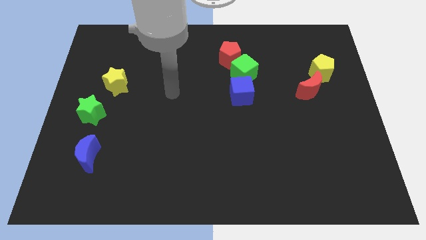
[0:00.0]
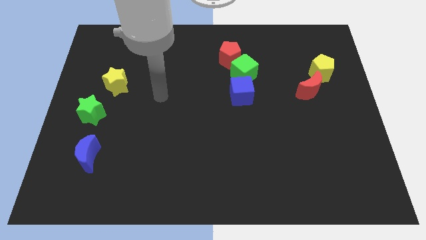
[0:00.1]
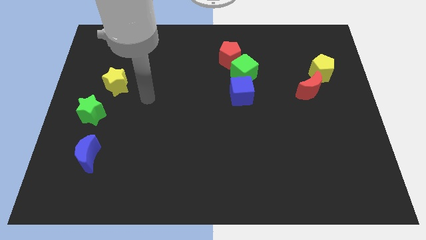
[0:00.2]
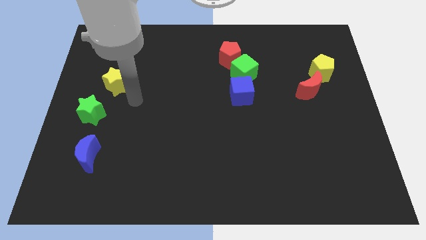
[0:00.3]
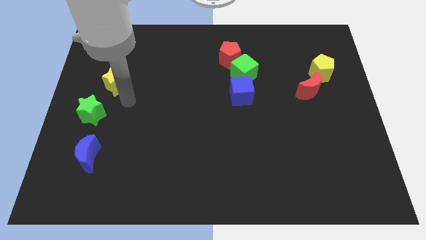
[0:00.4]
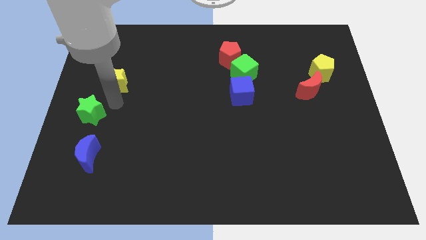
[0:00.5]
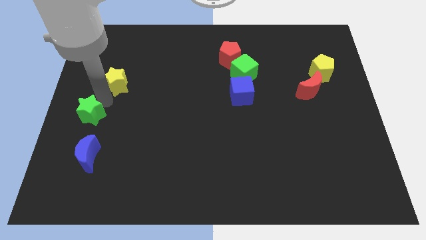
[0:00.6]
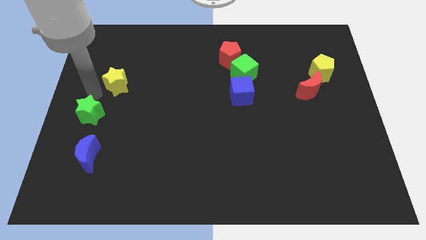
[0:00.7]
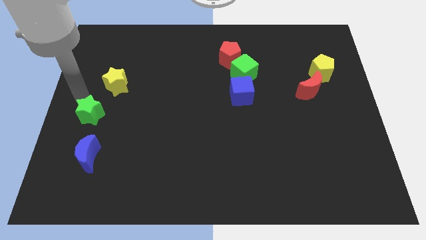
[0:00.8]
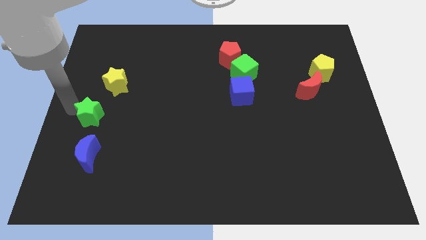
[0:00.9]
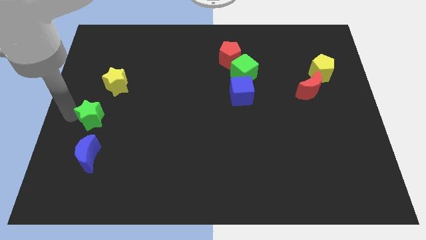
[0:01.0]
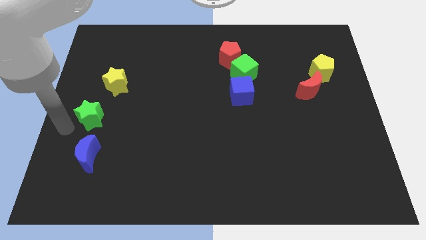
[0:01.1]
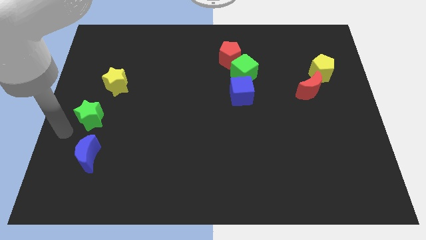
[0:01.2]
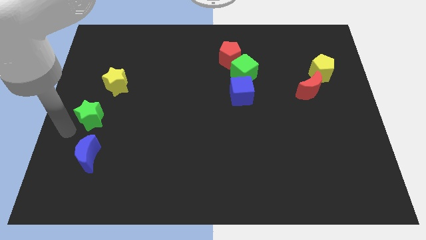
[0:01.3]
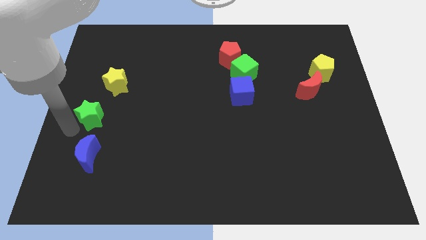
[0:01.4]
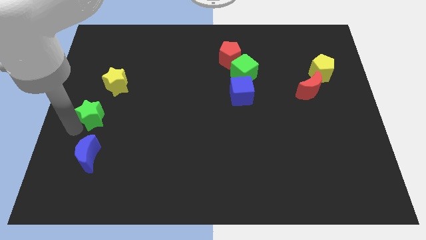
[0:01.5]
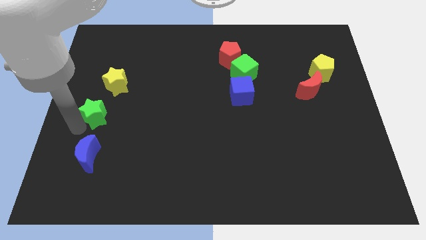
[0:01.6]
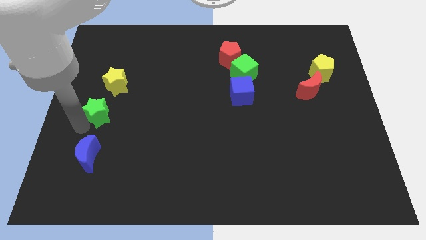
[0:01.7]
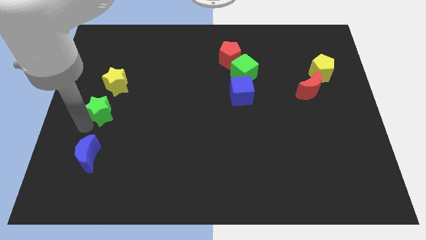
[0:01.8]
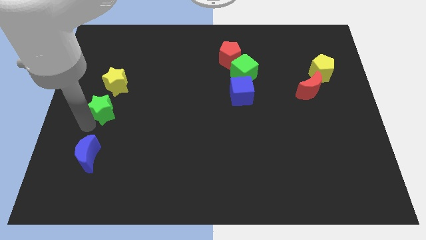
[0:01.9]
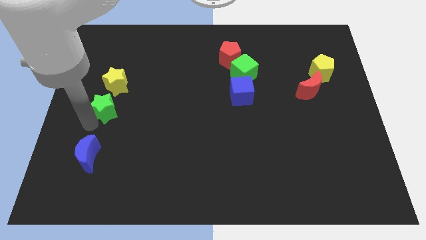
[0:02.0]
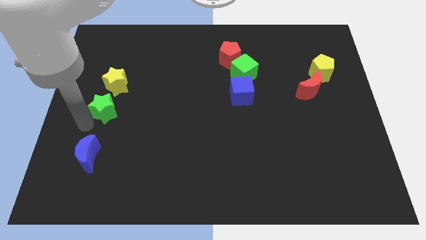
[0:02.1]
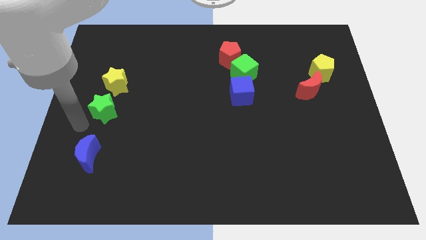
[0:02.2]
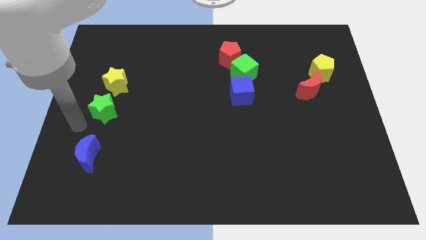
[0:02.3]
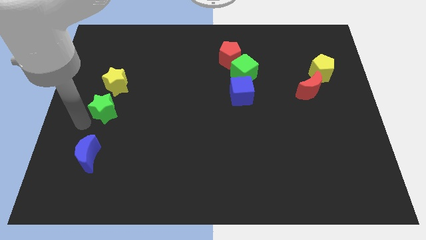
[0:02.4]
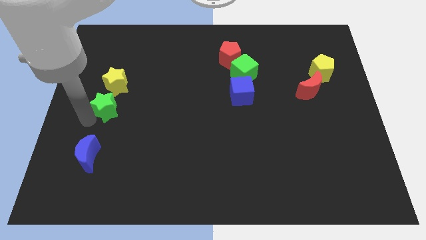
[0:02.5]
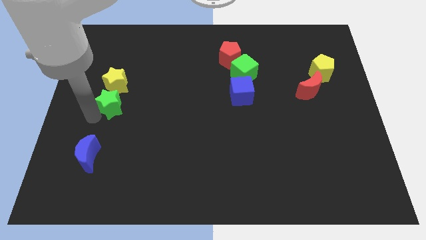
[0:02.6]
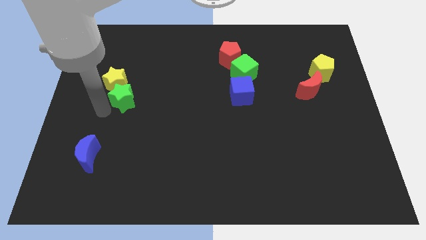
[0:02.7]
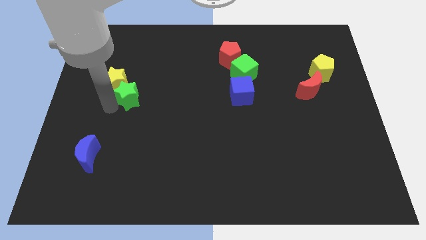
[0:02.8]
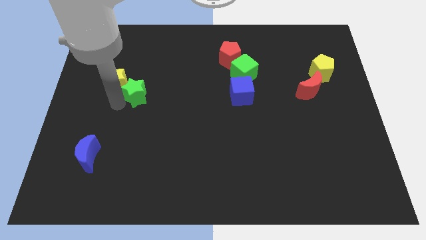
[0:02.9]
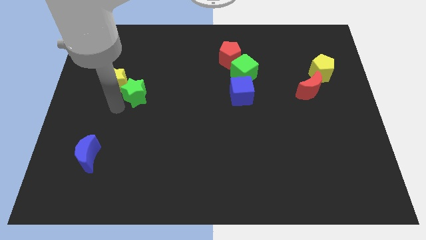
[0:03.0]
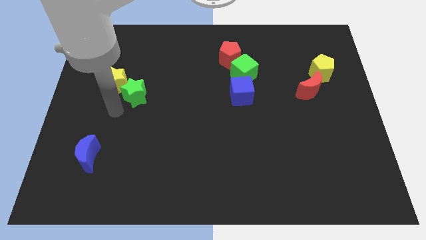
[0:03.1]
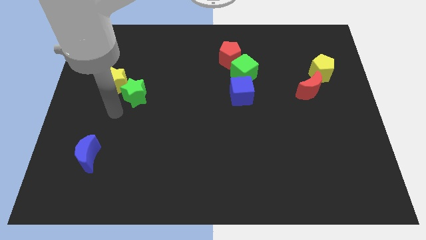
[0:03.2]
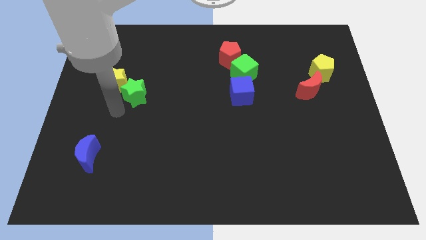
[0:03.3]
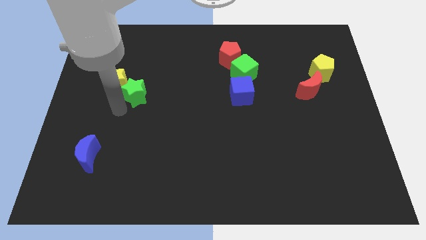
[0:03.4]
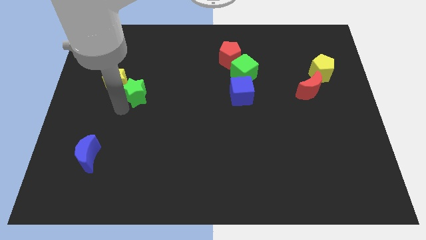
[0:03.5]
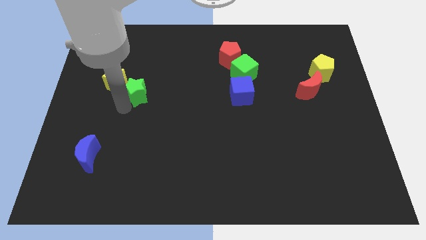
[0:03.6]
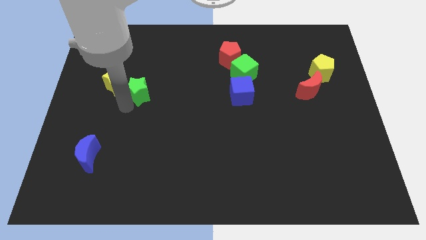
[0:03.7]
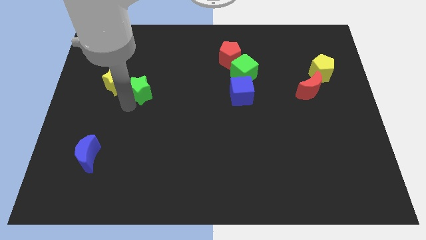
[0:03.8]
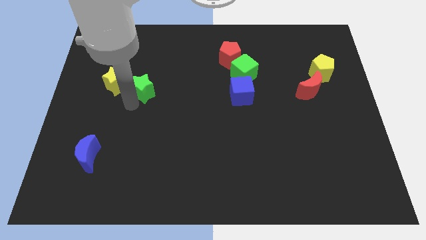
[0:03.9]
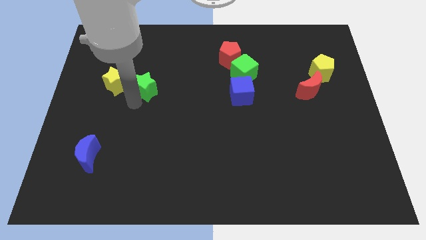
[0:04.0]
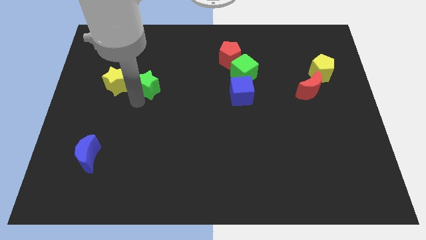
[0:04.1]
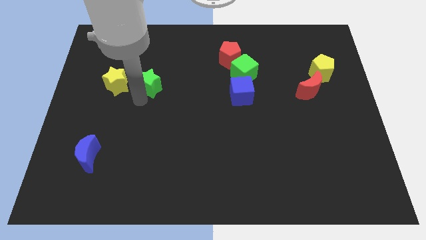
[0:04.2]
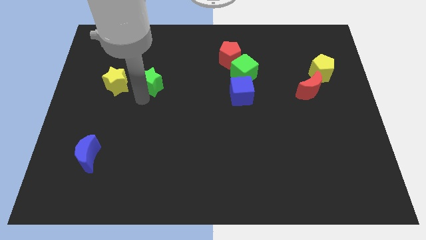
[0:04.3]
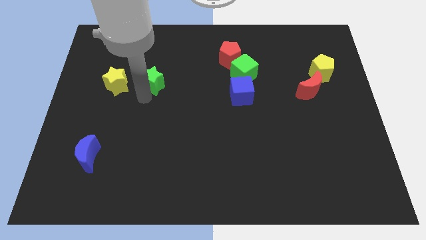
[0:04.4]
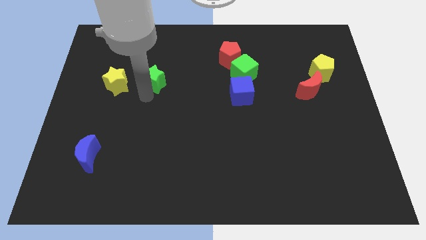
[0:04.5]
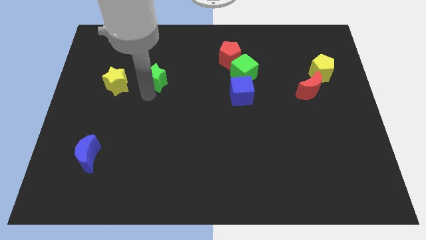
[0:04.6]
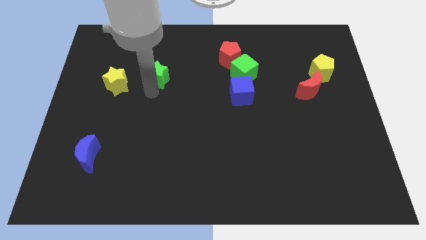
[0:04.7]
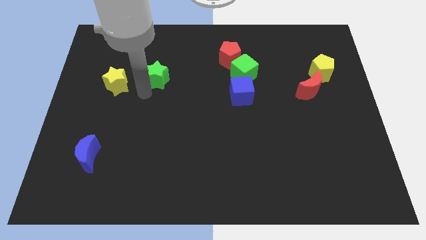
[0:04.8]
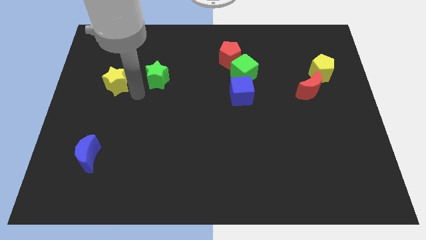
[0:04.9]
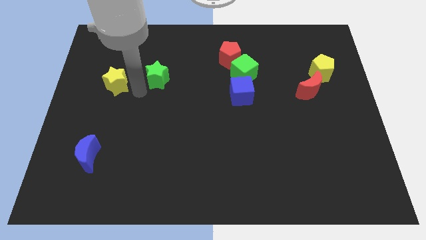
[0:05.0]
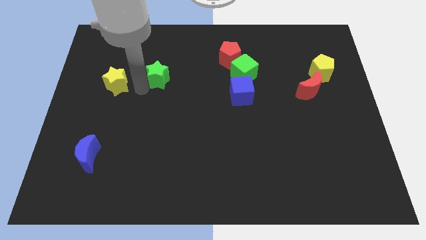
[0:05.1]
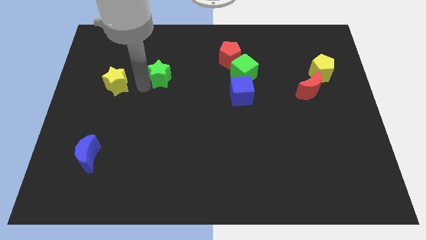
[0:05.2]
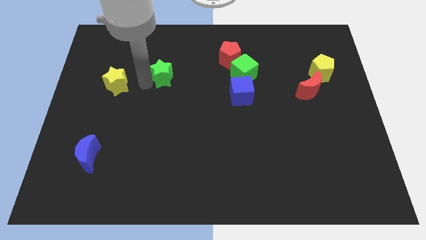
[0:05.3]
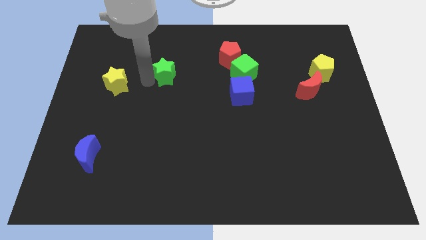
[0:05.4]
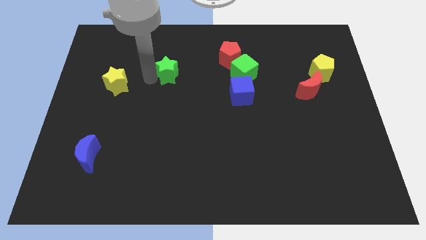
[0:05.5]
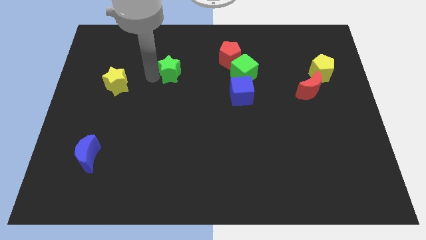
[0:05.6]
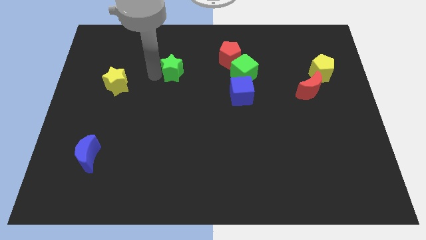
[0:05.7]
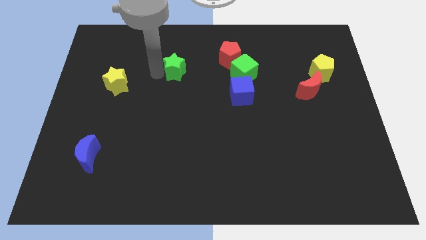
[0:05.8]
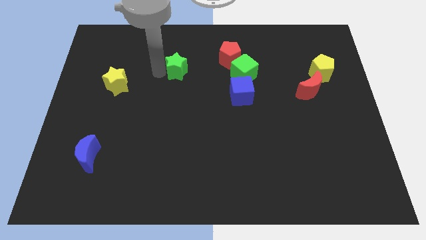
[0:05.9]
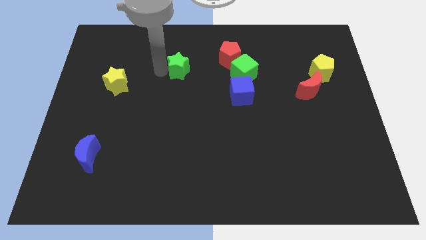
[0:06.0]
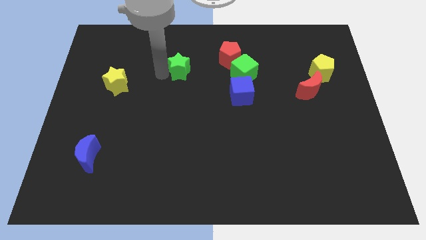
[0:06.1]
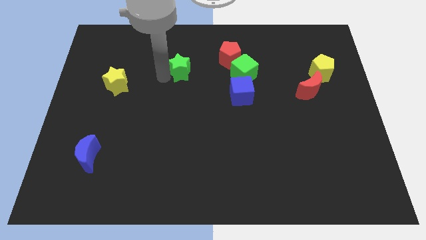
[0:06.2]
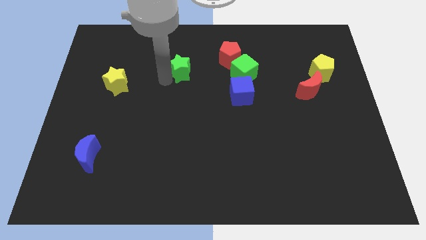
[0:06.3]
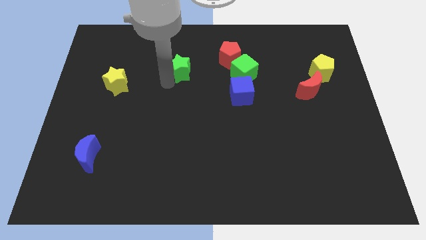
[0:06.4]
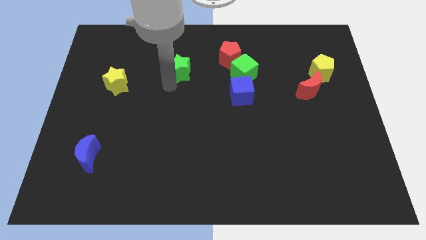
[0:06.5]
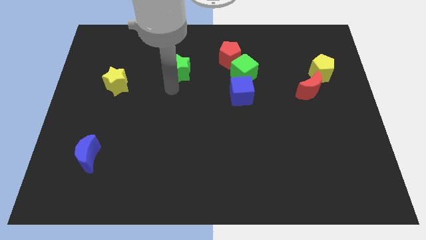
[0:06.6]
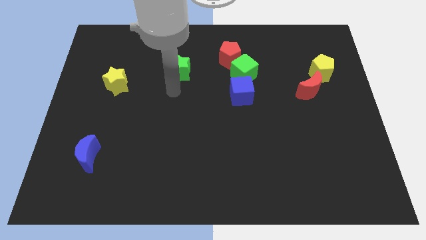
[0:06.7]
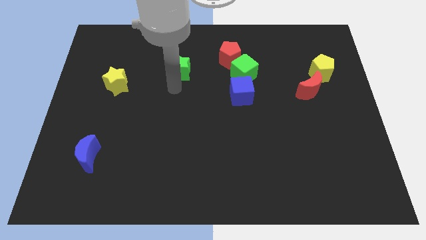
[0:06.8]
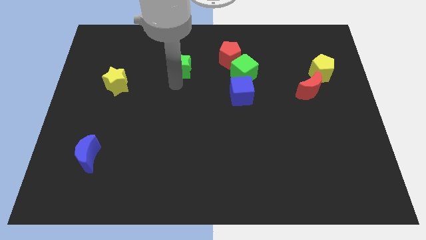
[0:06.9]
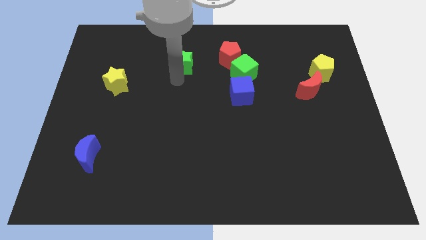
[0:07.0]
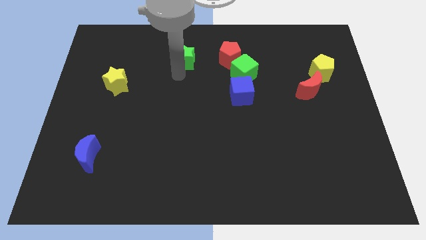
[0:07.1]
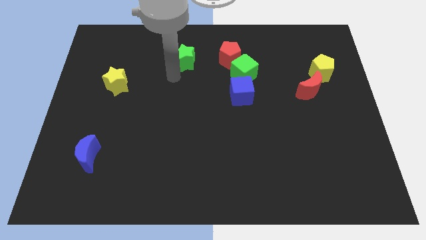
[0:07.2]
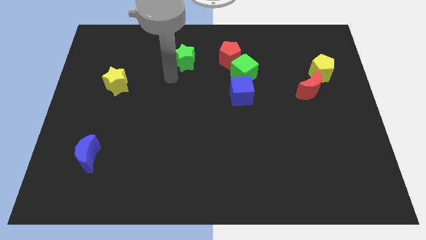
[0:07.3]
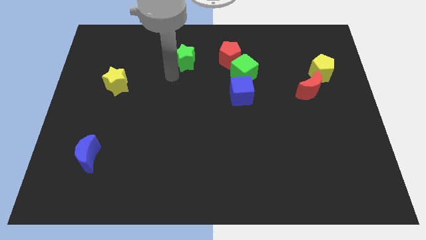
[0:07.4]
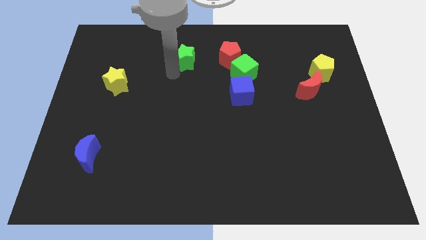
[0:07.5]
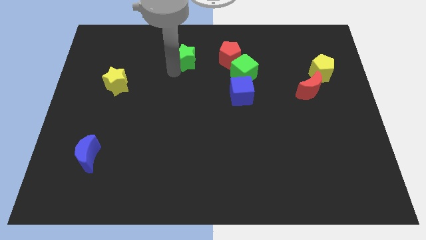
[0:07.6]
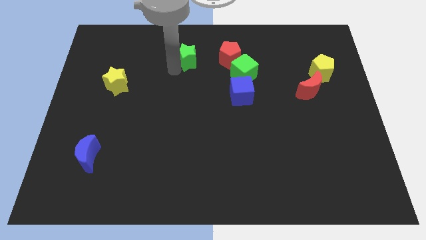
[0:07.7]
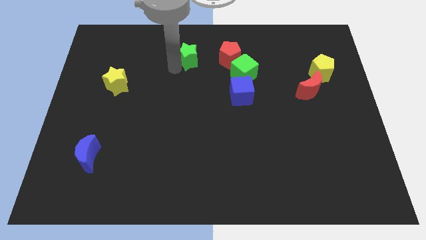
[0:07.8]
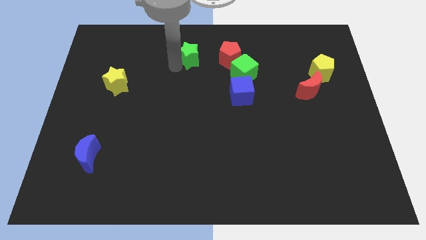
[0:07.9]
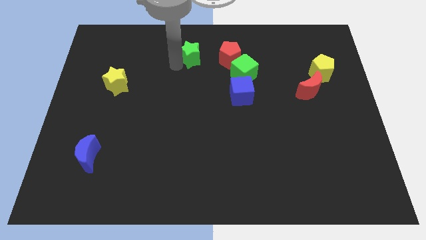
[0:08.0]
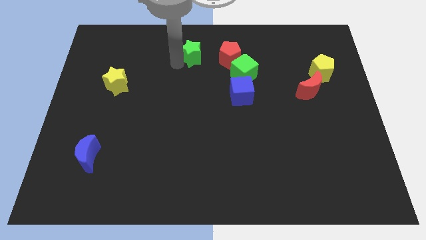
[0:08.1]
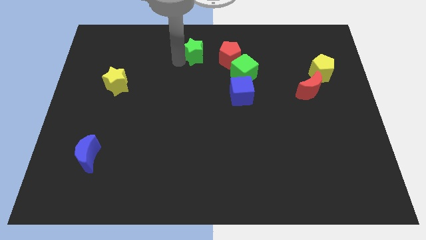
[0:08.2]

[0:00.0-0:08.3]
put the green star to the top side
